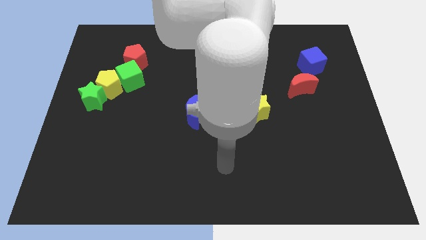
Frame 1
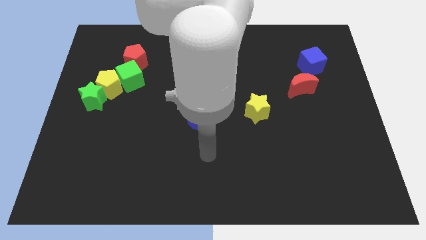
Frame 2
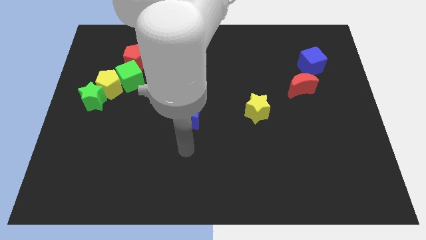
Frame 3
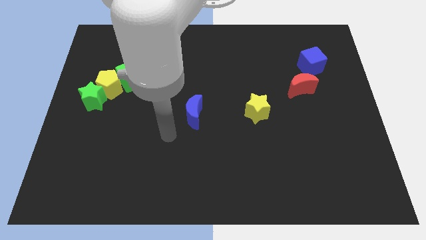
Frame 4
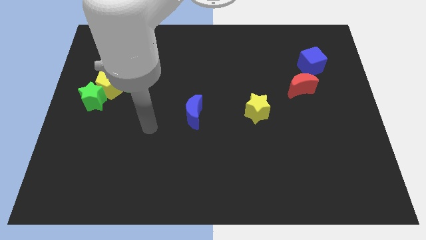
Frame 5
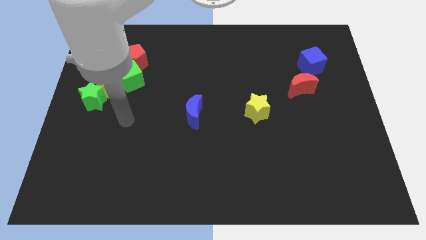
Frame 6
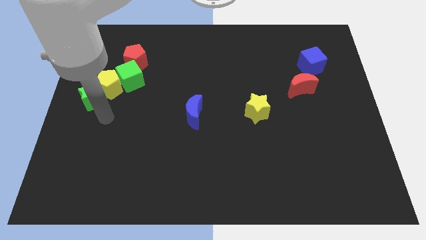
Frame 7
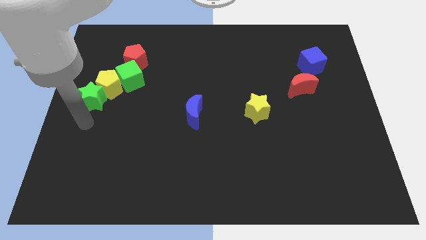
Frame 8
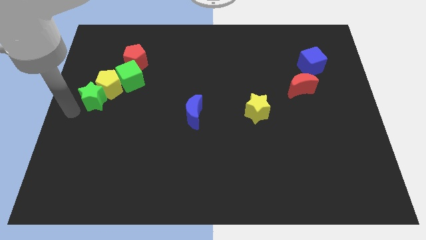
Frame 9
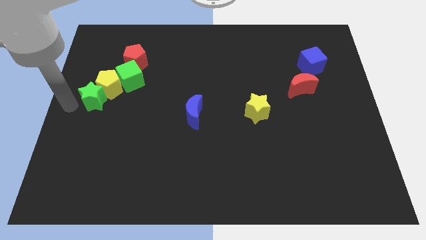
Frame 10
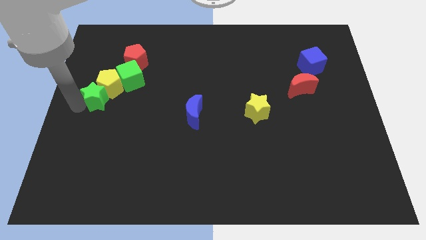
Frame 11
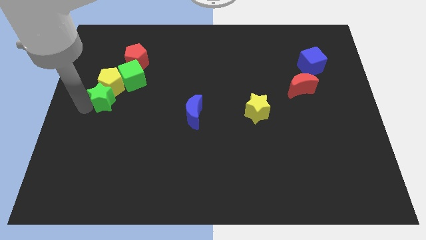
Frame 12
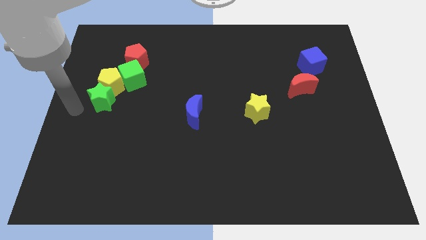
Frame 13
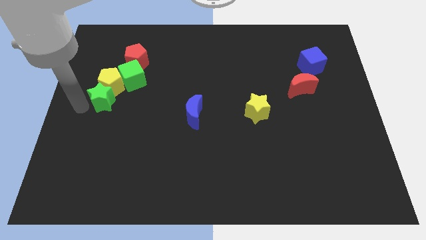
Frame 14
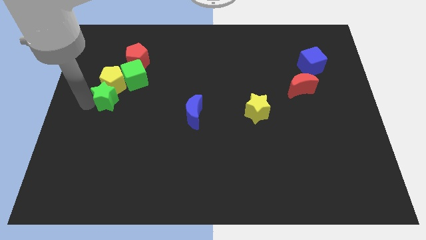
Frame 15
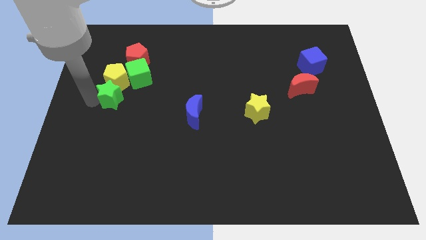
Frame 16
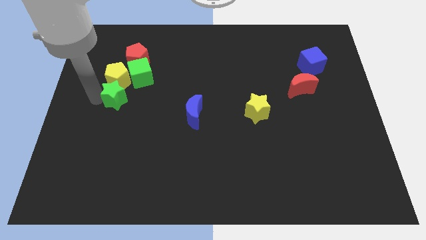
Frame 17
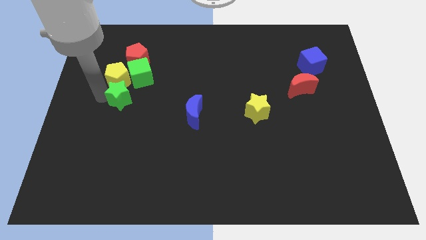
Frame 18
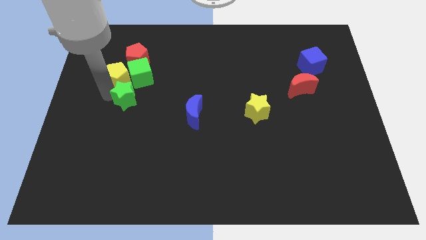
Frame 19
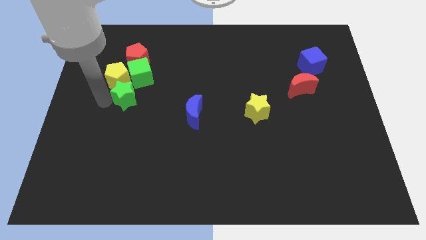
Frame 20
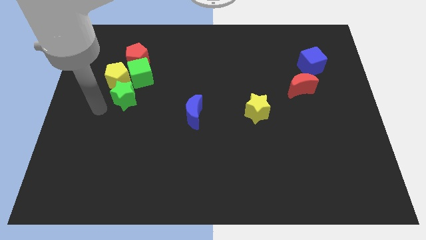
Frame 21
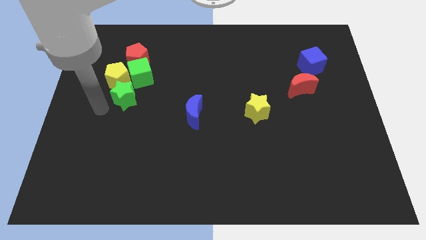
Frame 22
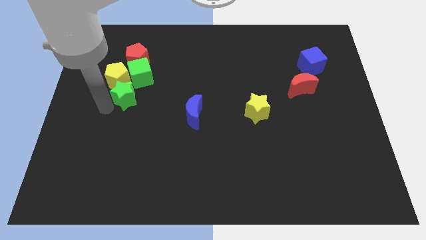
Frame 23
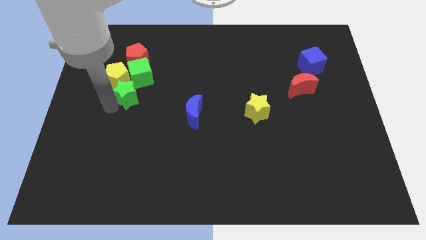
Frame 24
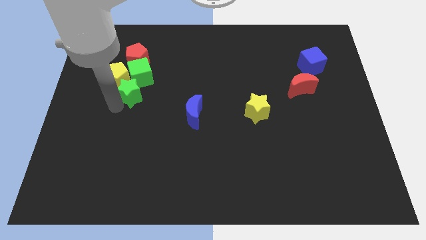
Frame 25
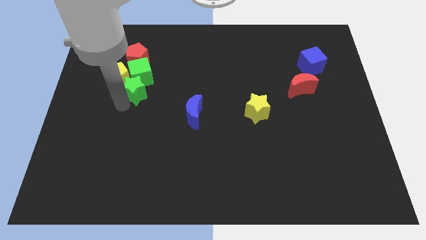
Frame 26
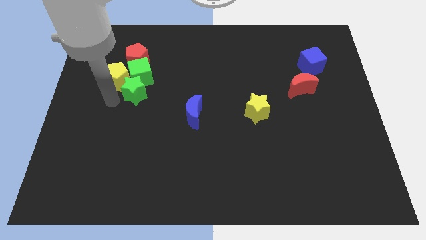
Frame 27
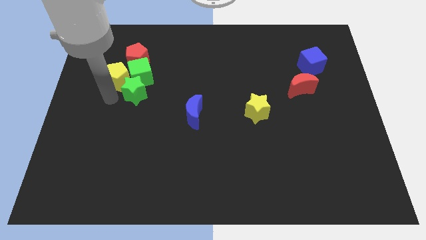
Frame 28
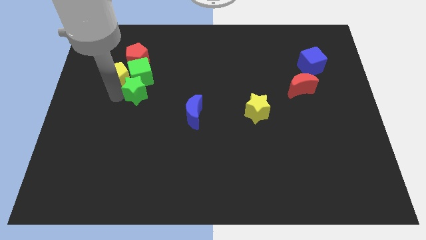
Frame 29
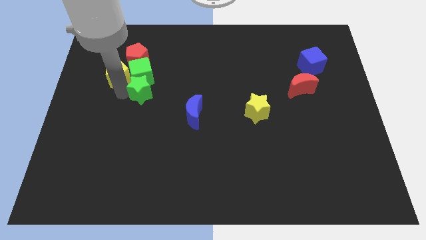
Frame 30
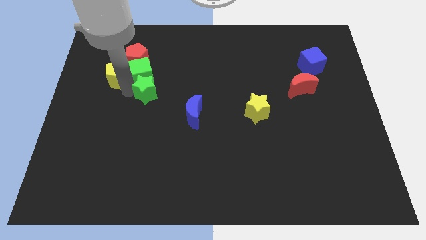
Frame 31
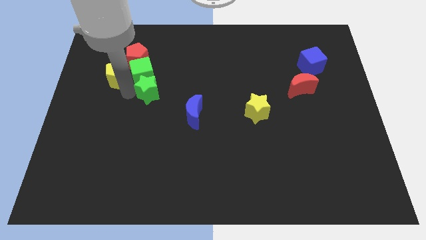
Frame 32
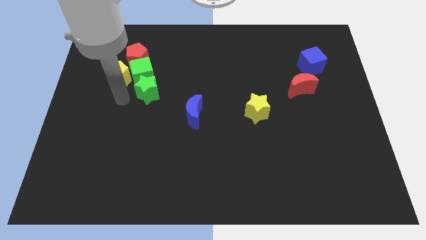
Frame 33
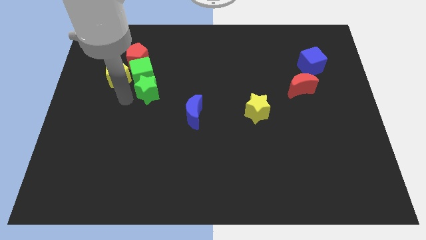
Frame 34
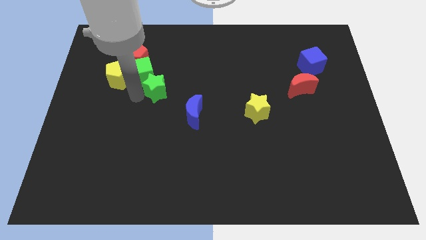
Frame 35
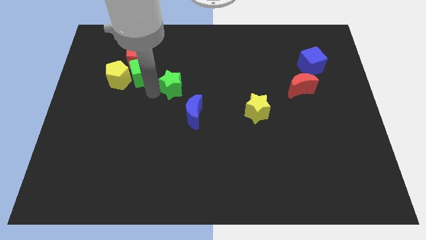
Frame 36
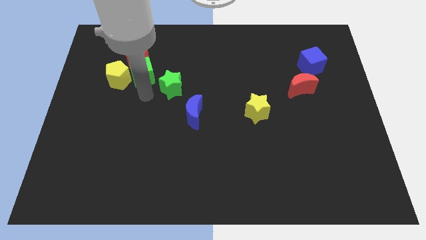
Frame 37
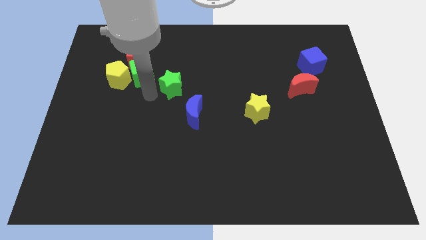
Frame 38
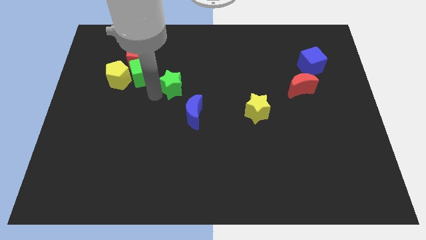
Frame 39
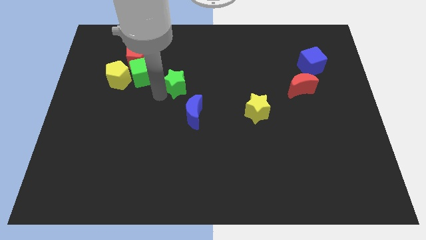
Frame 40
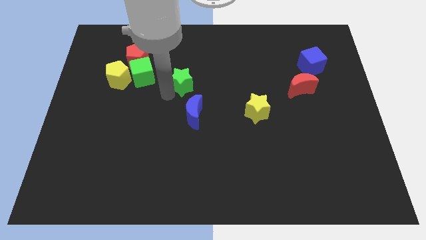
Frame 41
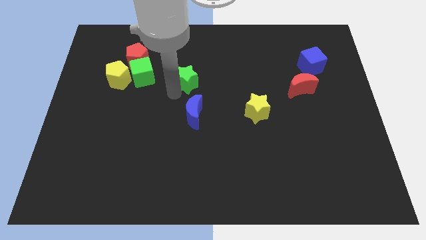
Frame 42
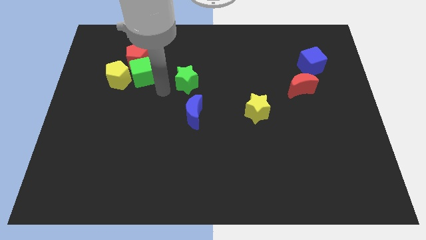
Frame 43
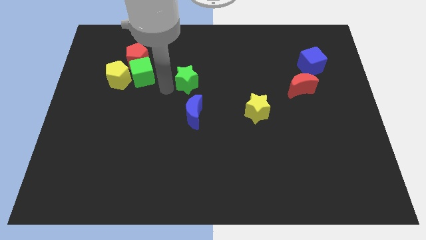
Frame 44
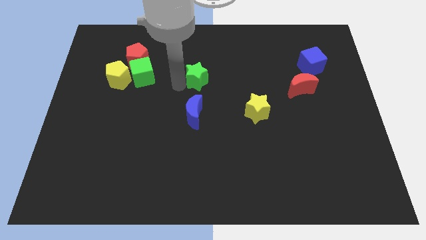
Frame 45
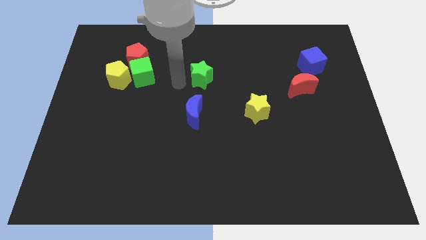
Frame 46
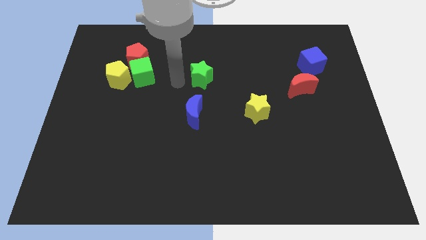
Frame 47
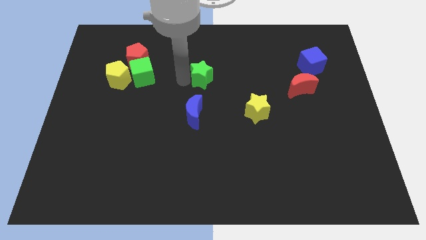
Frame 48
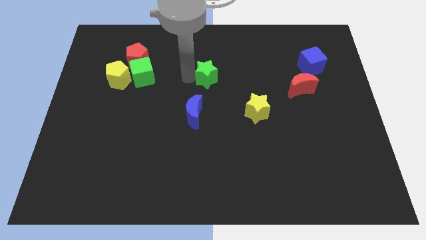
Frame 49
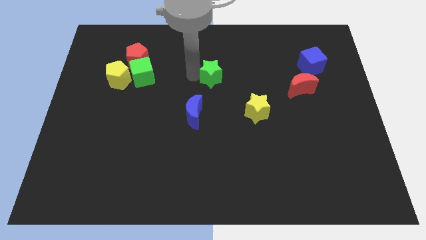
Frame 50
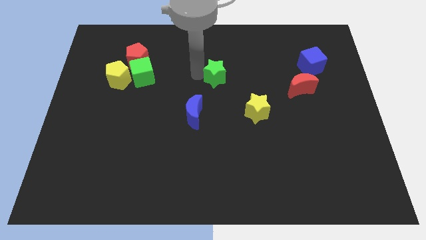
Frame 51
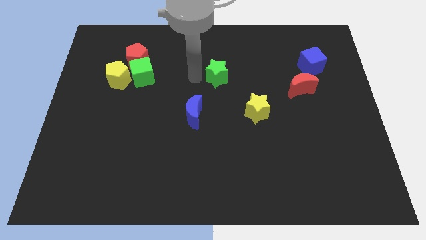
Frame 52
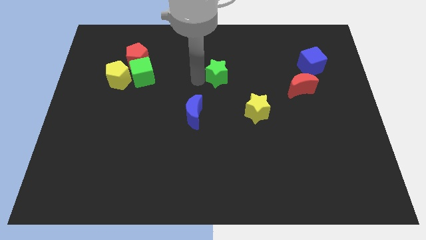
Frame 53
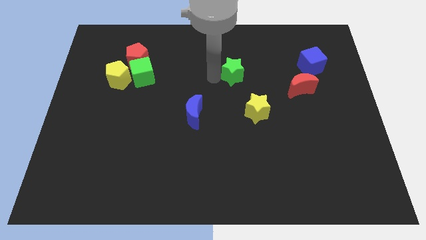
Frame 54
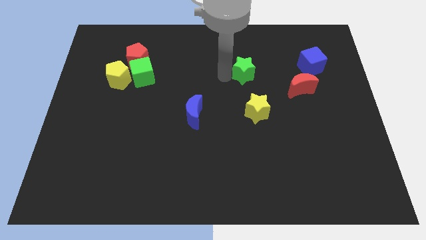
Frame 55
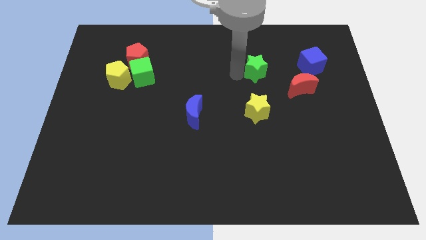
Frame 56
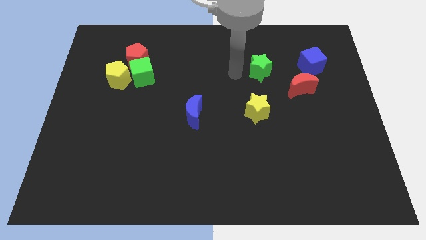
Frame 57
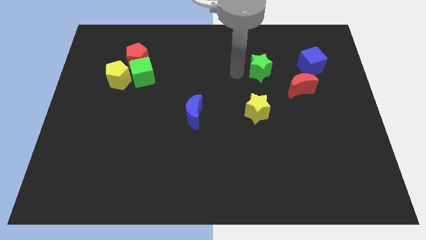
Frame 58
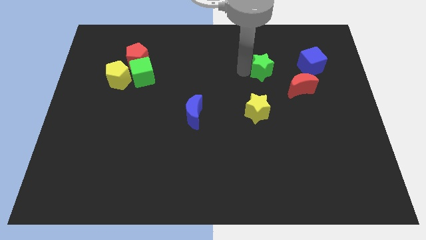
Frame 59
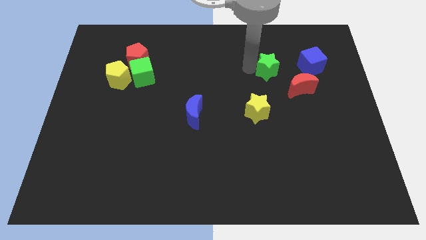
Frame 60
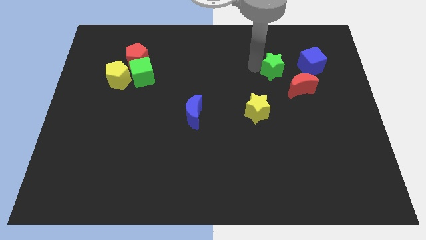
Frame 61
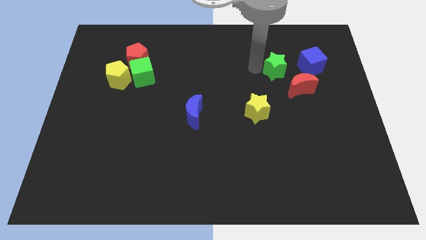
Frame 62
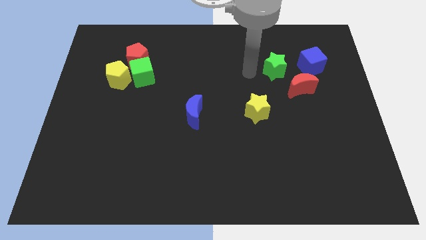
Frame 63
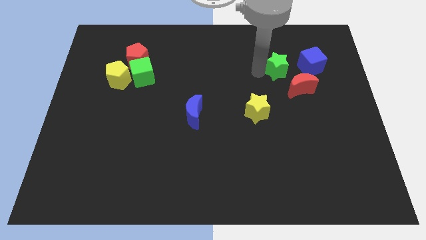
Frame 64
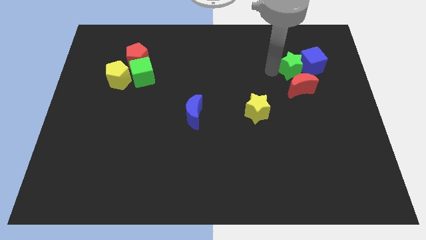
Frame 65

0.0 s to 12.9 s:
move the green star towards the blue cube

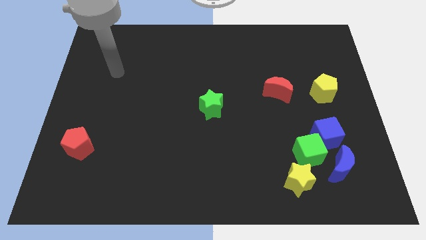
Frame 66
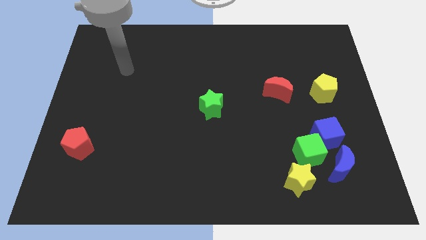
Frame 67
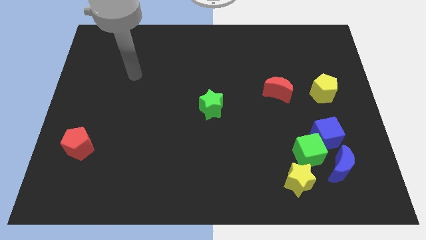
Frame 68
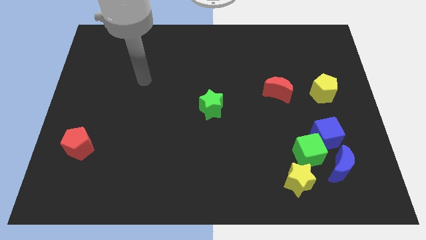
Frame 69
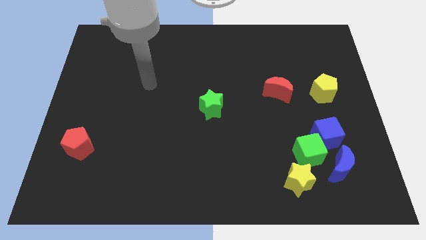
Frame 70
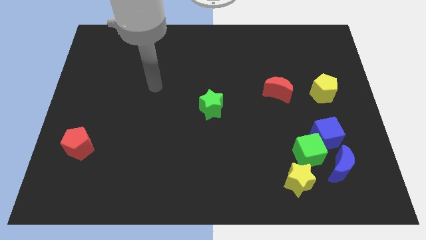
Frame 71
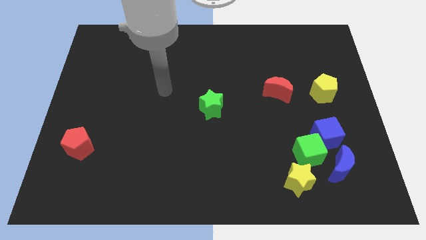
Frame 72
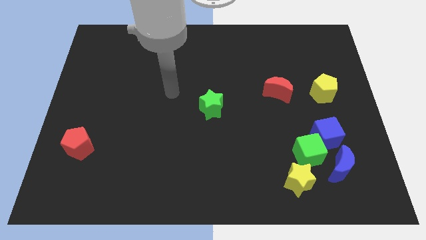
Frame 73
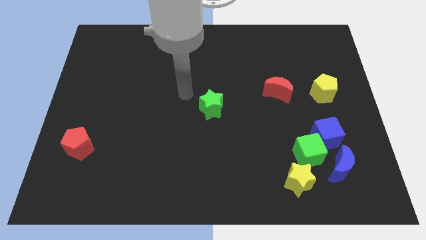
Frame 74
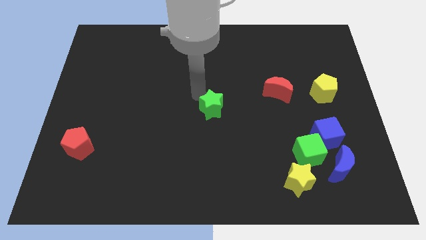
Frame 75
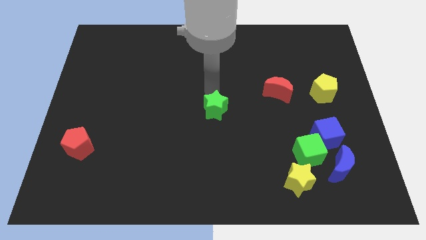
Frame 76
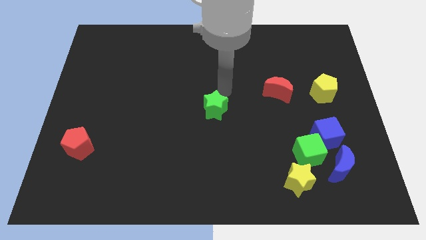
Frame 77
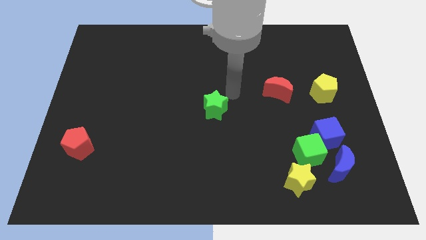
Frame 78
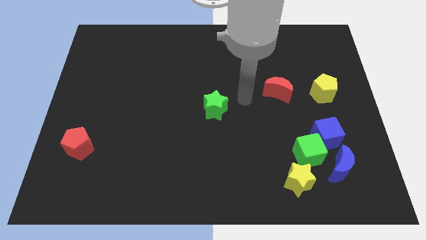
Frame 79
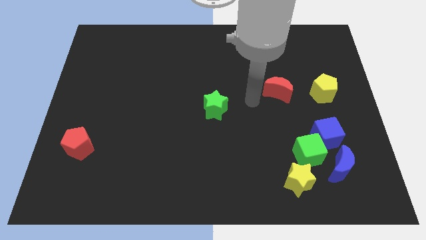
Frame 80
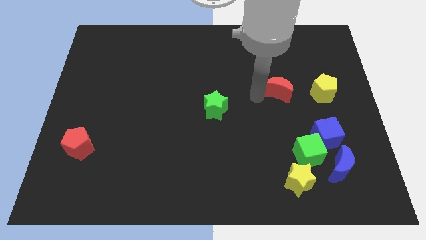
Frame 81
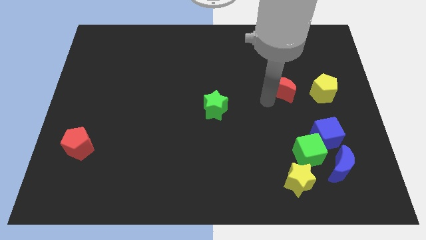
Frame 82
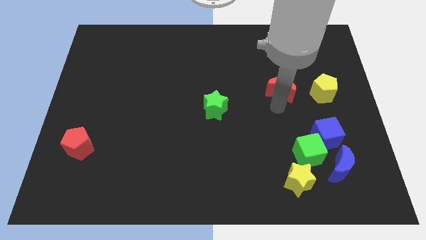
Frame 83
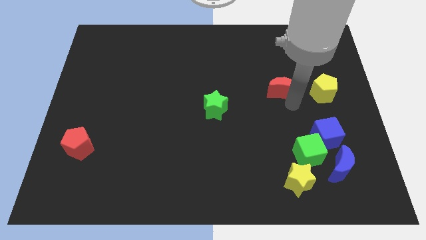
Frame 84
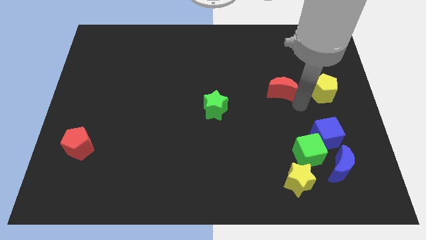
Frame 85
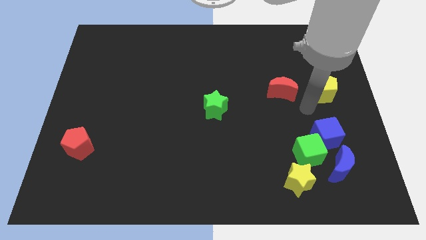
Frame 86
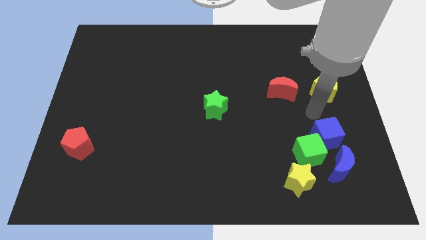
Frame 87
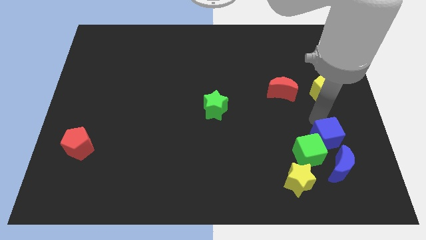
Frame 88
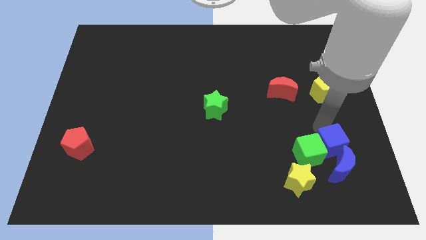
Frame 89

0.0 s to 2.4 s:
put the blue cube next to the blue moon
